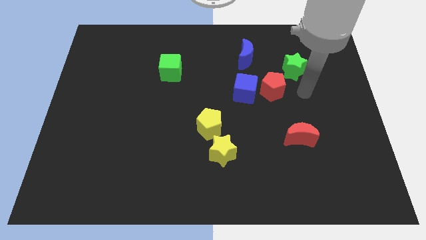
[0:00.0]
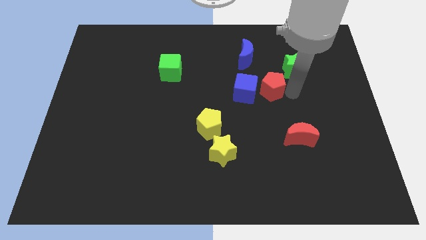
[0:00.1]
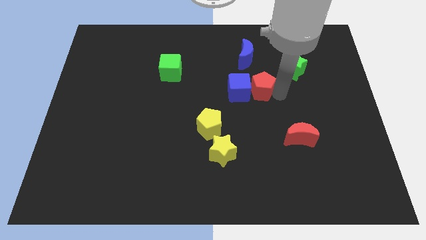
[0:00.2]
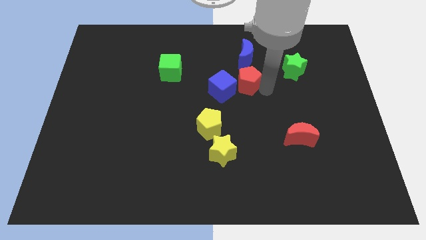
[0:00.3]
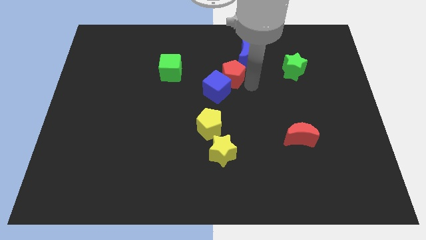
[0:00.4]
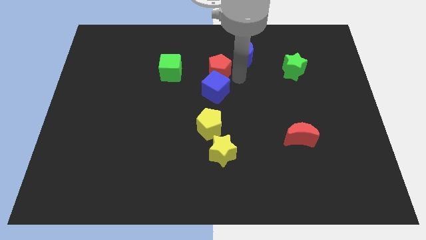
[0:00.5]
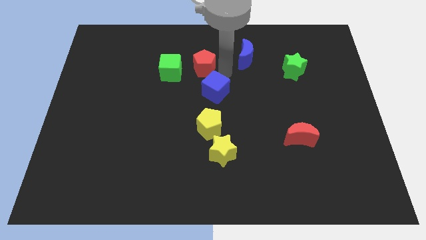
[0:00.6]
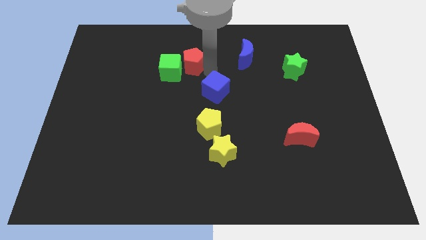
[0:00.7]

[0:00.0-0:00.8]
separate the blue cube from the red pentagon

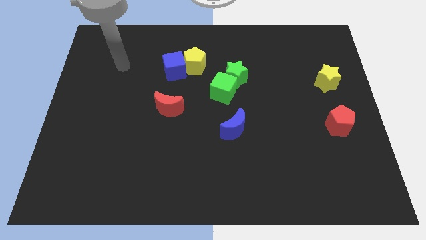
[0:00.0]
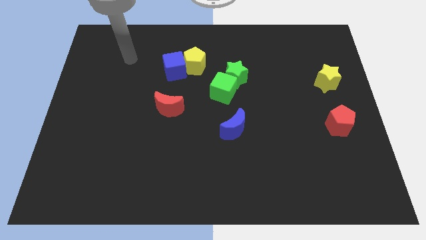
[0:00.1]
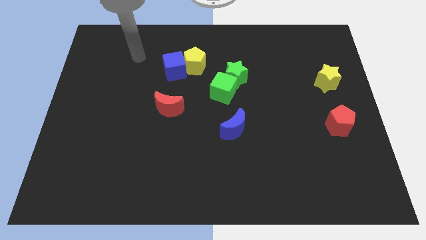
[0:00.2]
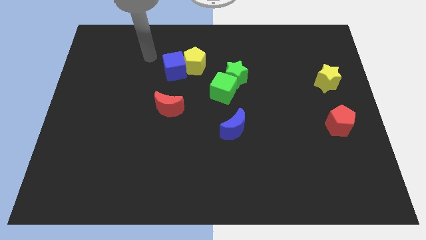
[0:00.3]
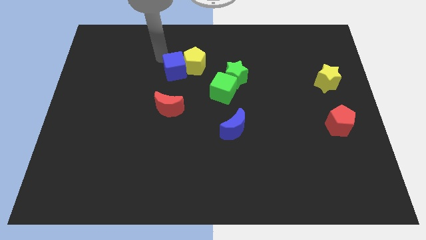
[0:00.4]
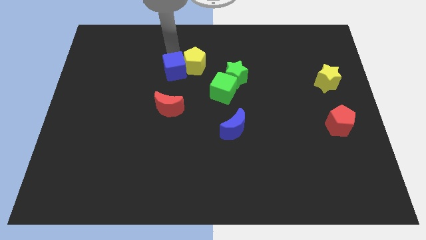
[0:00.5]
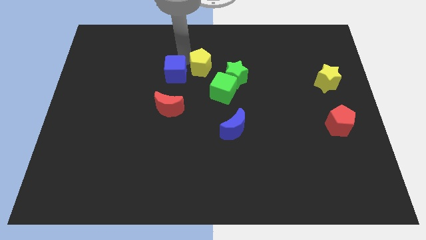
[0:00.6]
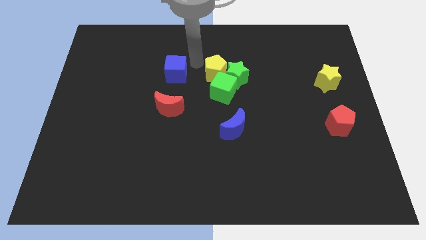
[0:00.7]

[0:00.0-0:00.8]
separate the blue cube from the yellow pentagon

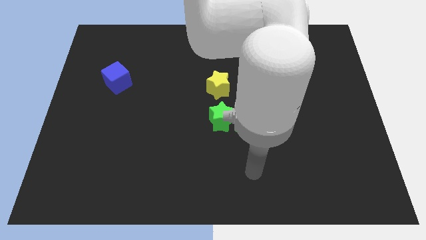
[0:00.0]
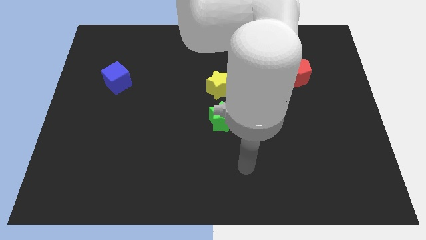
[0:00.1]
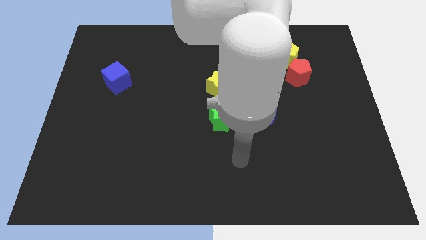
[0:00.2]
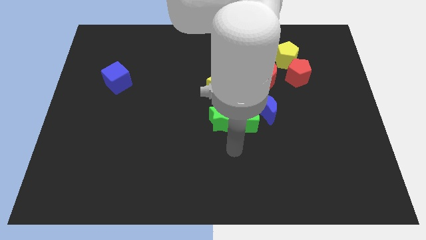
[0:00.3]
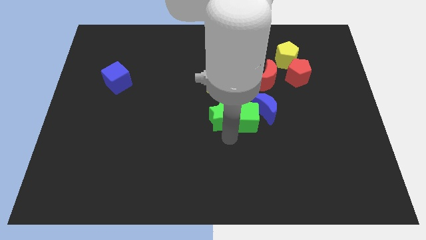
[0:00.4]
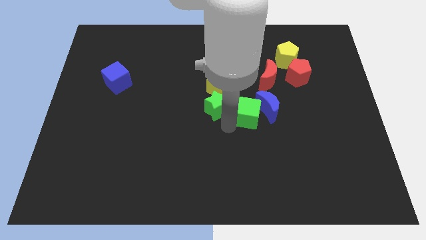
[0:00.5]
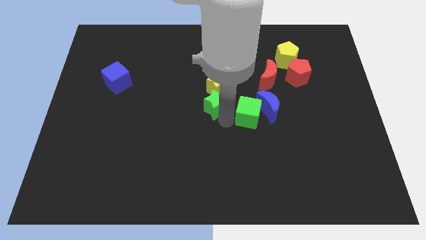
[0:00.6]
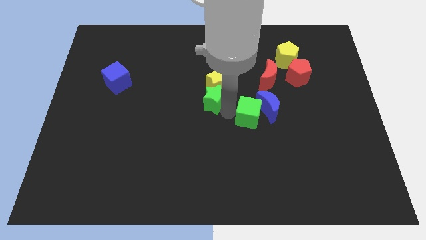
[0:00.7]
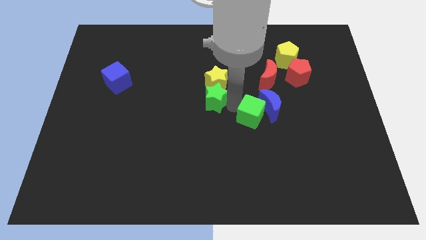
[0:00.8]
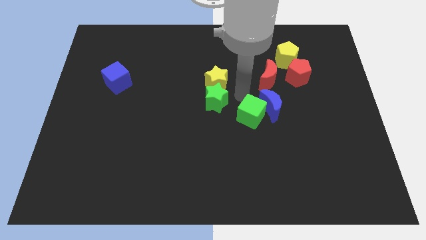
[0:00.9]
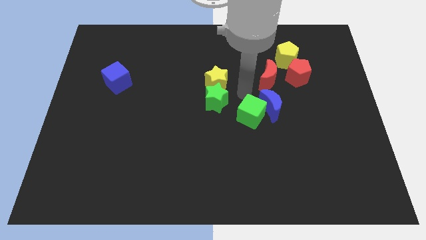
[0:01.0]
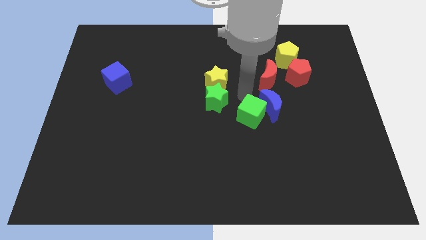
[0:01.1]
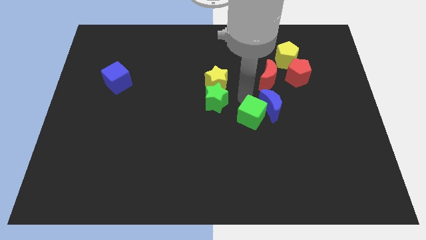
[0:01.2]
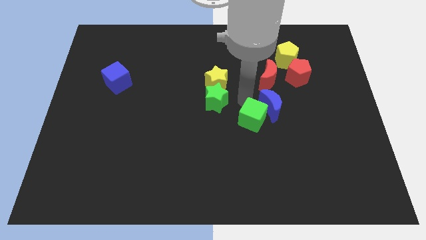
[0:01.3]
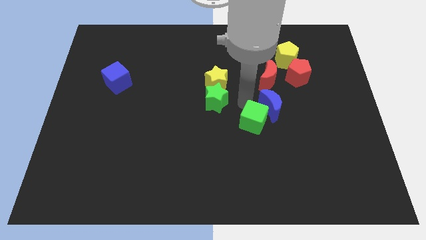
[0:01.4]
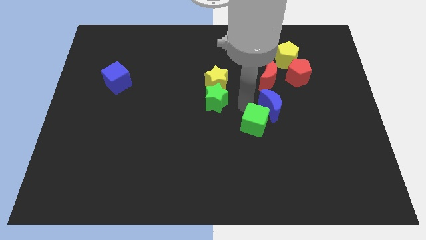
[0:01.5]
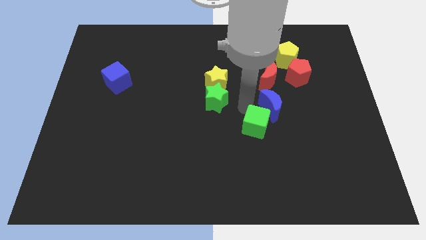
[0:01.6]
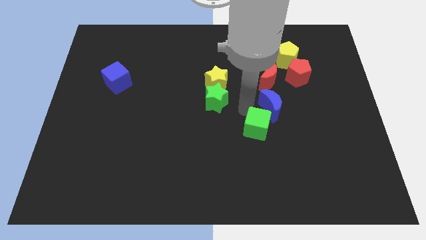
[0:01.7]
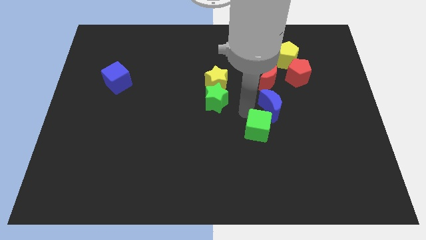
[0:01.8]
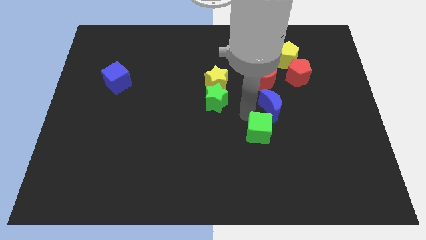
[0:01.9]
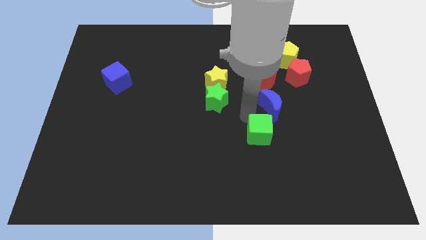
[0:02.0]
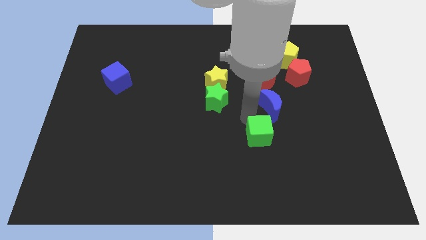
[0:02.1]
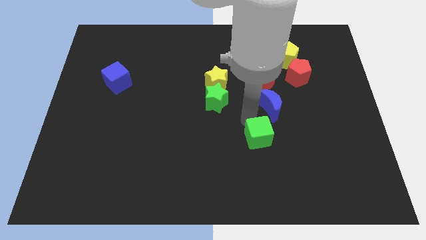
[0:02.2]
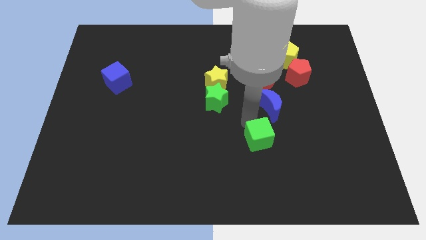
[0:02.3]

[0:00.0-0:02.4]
pull the green cube apart from the blue moon and green star

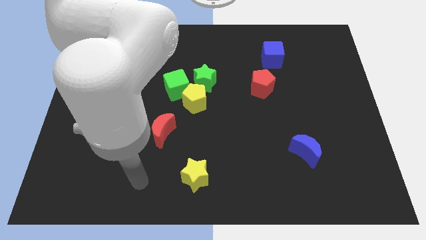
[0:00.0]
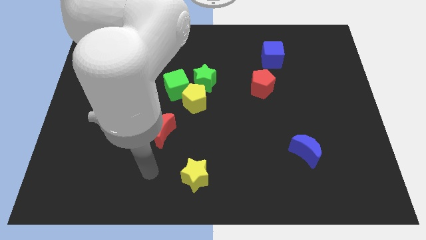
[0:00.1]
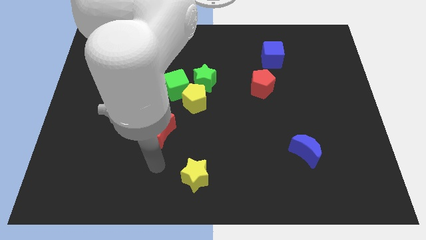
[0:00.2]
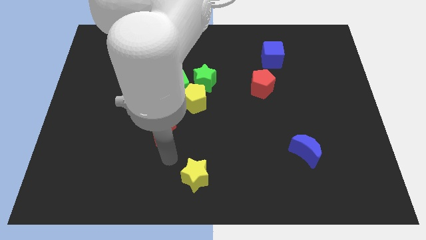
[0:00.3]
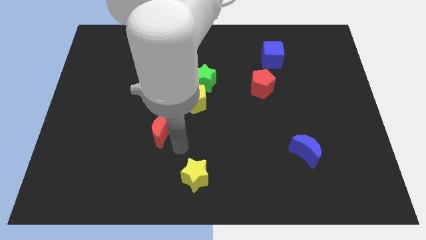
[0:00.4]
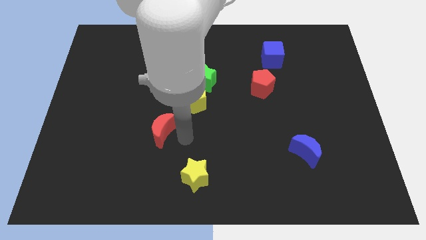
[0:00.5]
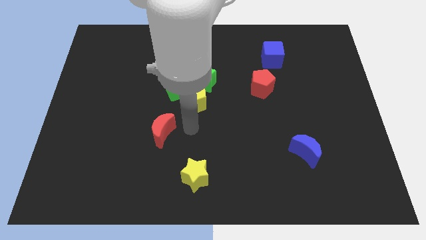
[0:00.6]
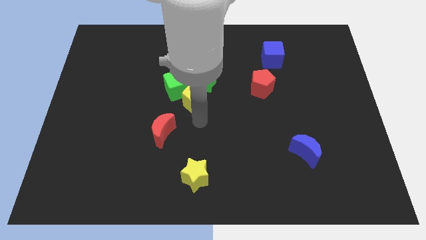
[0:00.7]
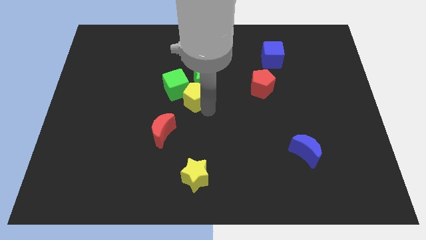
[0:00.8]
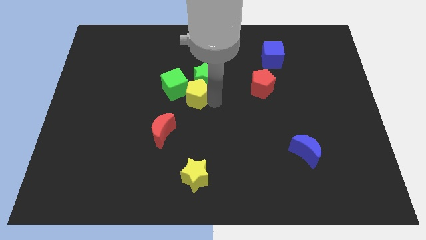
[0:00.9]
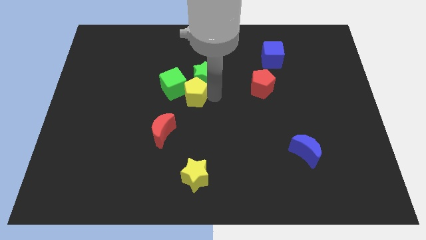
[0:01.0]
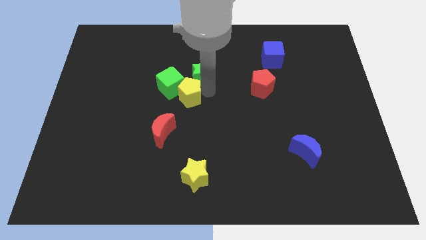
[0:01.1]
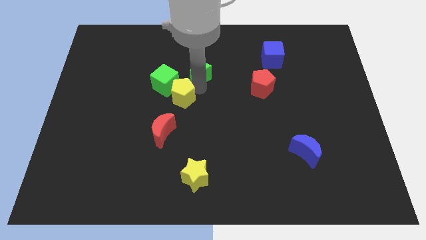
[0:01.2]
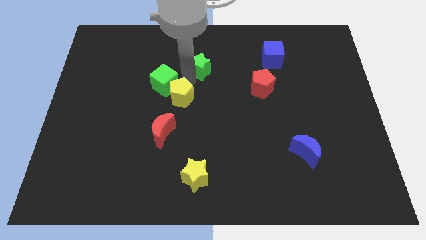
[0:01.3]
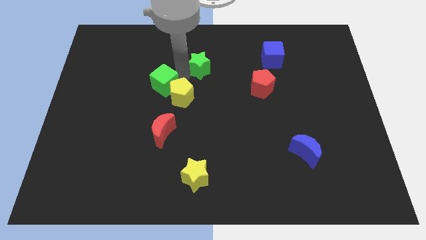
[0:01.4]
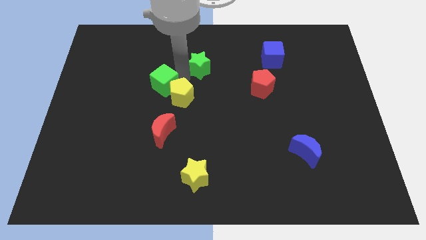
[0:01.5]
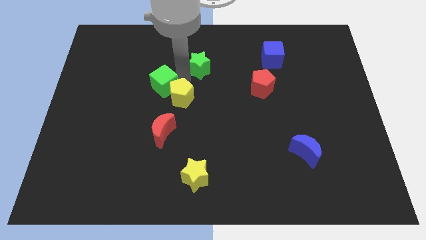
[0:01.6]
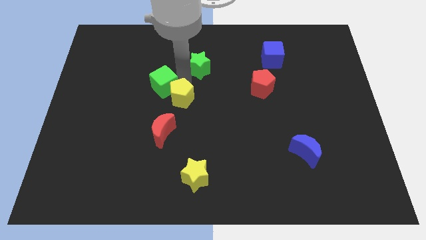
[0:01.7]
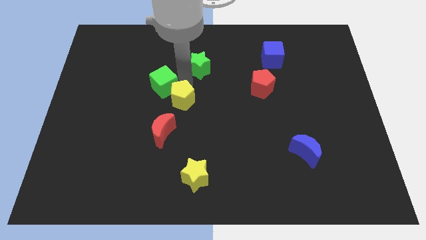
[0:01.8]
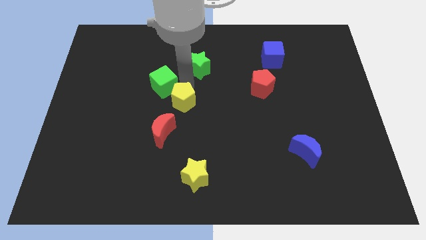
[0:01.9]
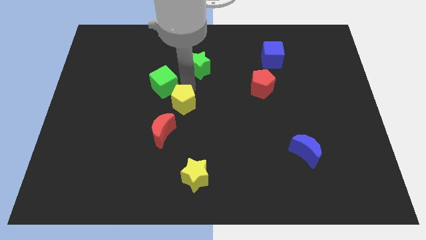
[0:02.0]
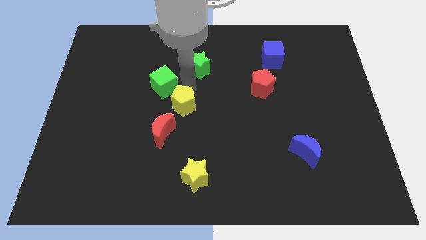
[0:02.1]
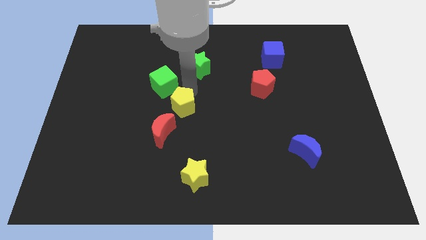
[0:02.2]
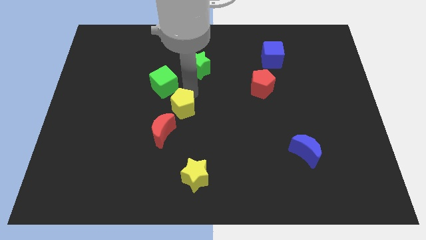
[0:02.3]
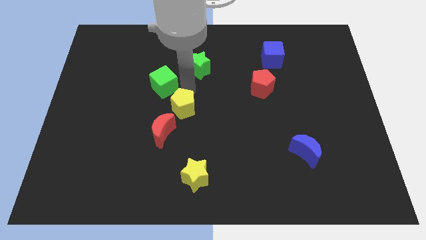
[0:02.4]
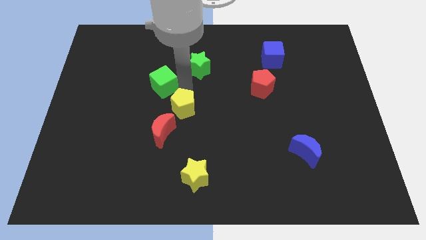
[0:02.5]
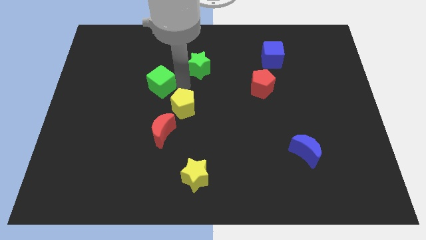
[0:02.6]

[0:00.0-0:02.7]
move the yellow pentagon away from the green cube and green star

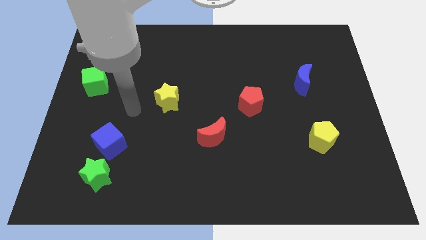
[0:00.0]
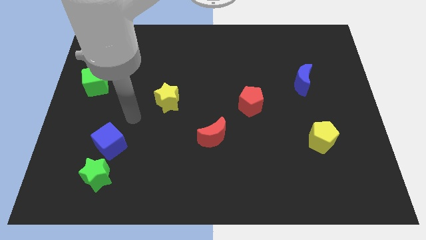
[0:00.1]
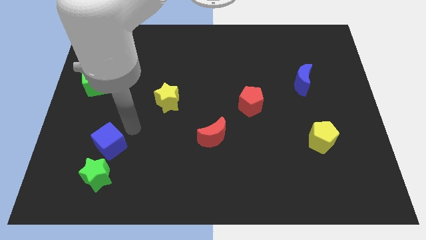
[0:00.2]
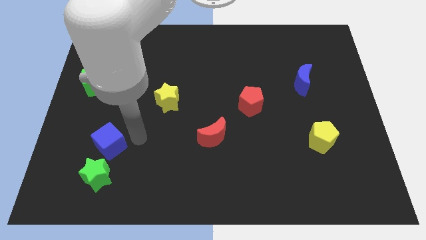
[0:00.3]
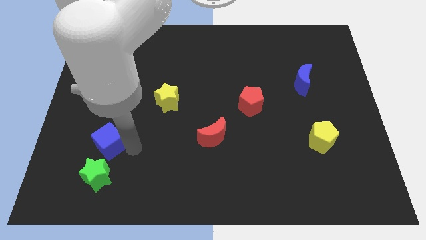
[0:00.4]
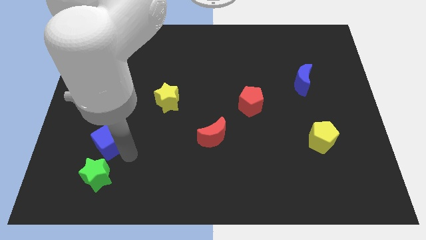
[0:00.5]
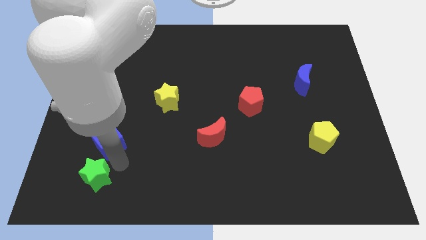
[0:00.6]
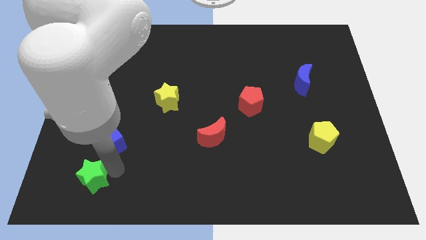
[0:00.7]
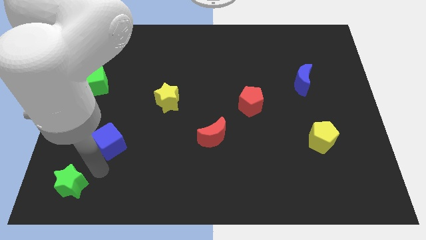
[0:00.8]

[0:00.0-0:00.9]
move the blue cube away from the green star

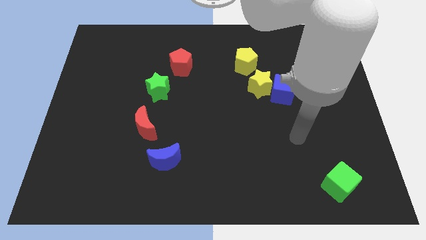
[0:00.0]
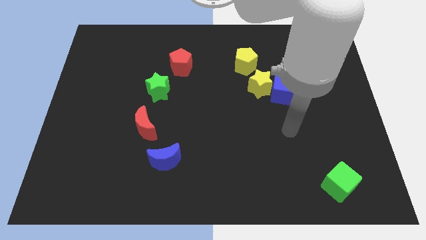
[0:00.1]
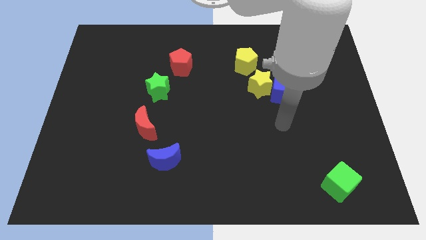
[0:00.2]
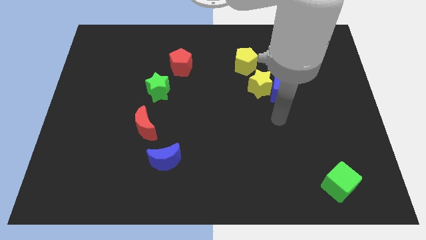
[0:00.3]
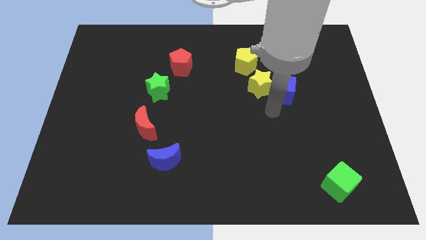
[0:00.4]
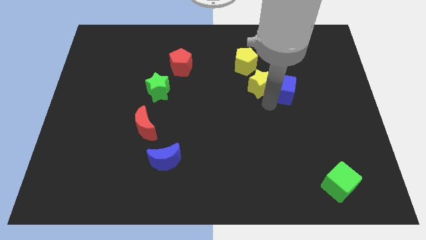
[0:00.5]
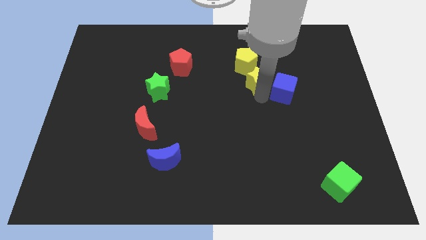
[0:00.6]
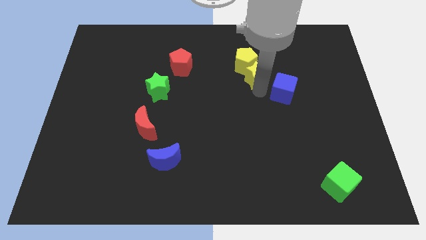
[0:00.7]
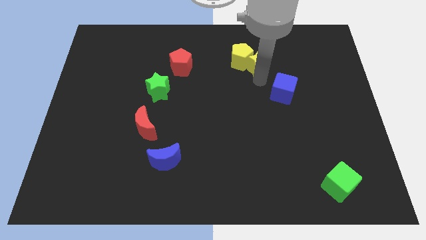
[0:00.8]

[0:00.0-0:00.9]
move the blue cube away from the yellow star

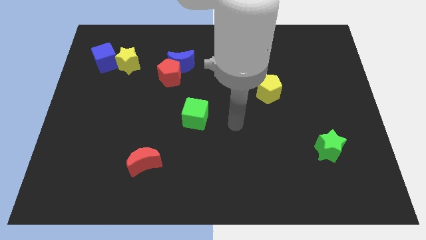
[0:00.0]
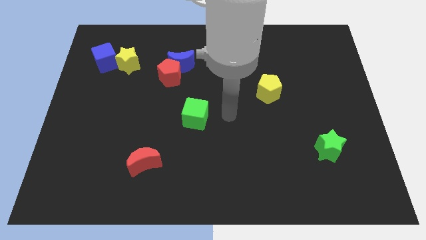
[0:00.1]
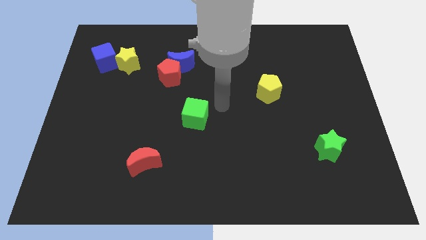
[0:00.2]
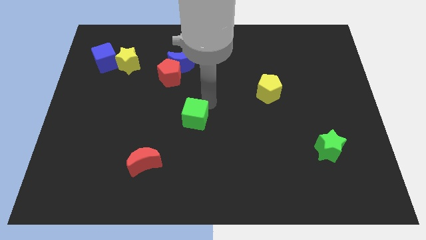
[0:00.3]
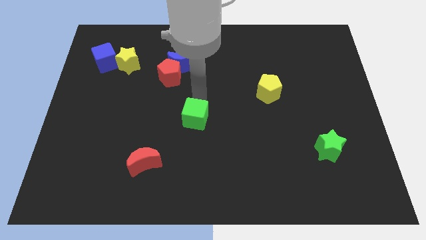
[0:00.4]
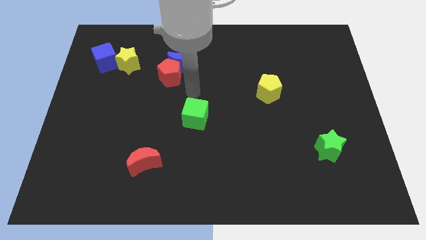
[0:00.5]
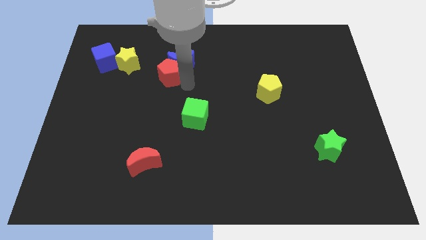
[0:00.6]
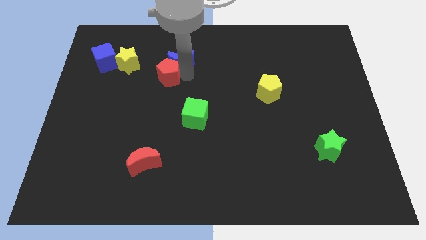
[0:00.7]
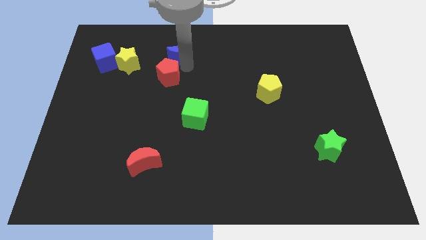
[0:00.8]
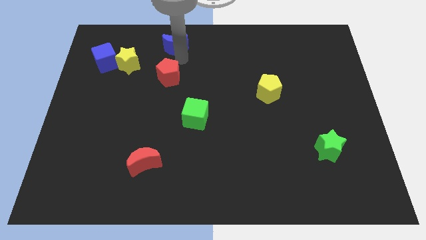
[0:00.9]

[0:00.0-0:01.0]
pull the red pentagon apart from the blue moon
